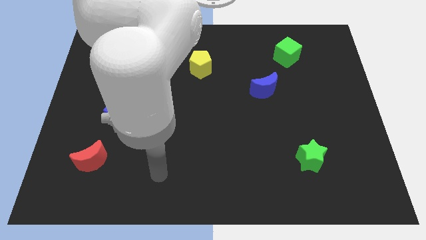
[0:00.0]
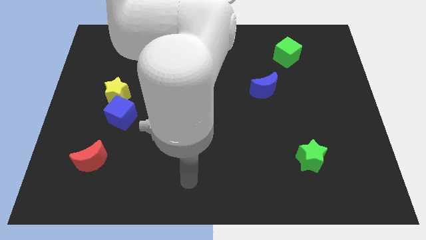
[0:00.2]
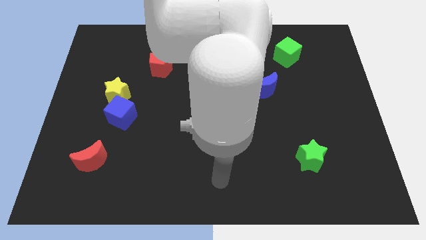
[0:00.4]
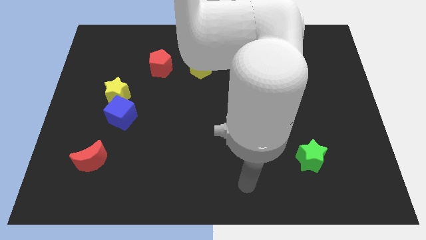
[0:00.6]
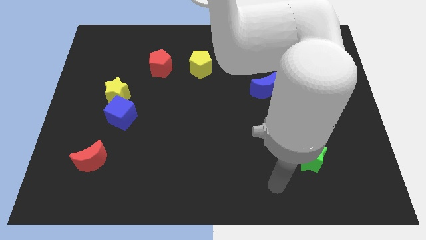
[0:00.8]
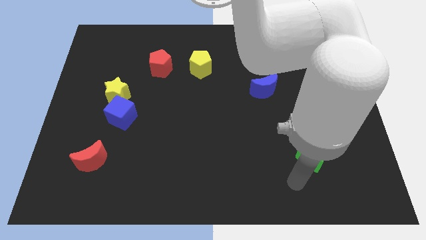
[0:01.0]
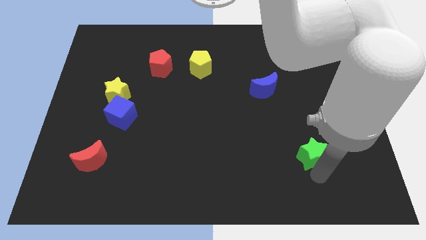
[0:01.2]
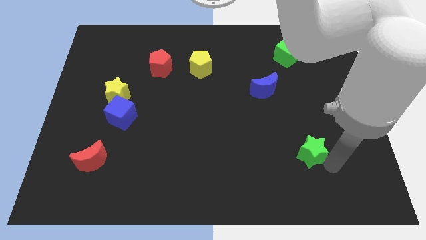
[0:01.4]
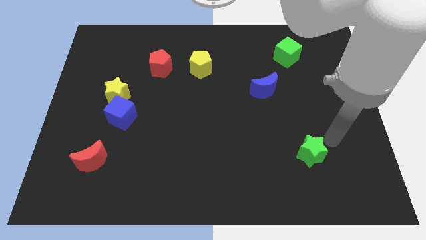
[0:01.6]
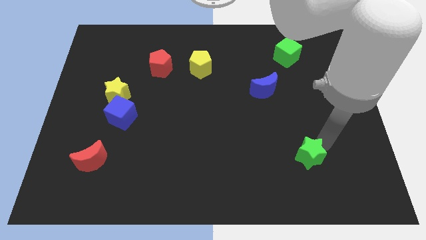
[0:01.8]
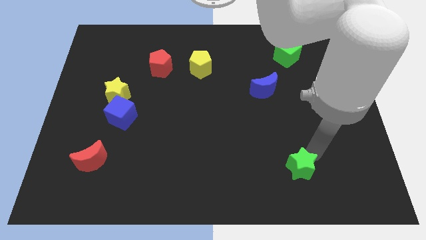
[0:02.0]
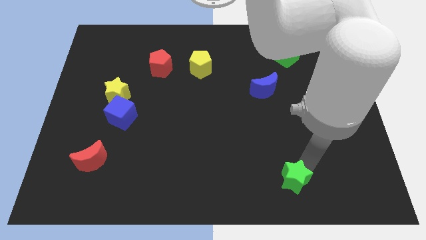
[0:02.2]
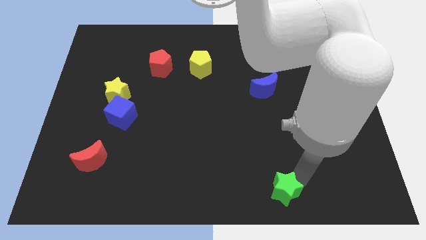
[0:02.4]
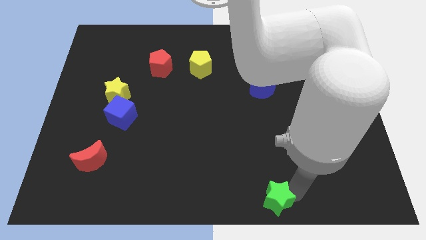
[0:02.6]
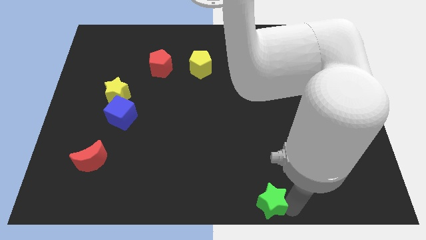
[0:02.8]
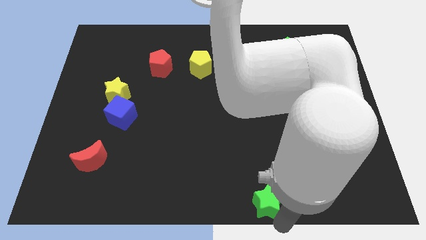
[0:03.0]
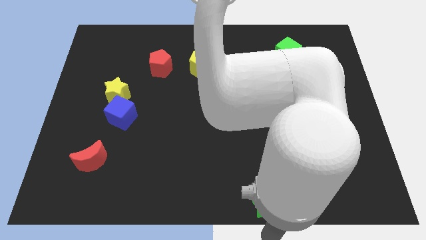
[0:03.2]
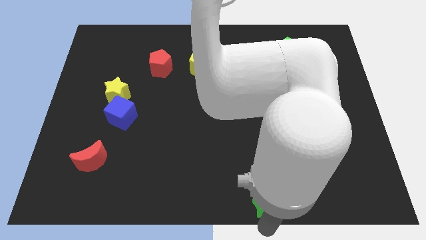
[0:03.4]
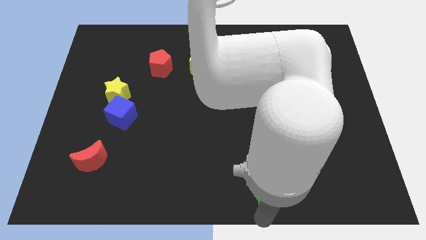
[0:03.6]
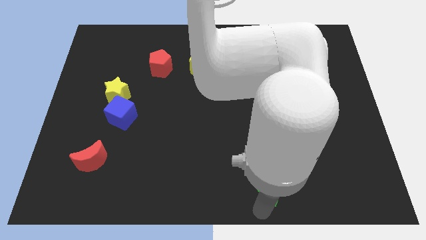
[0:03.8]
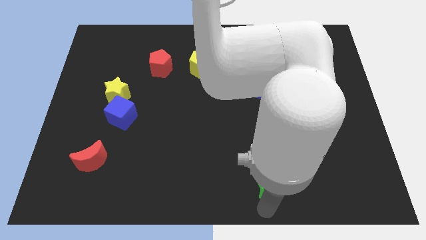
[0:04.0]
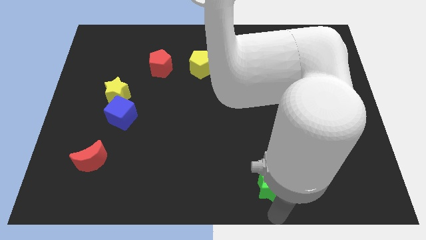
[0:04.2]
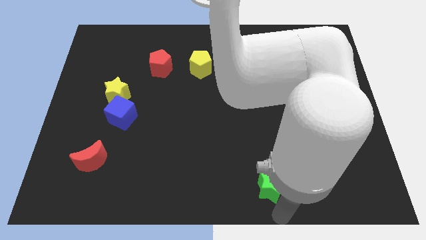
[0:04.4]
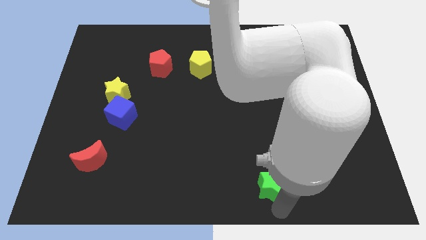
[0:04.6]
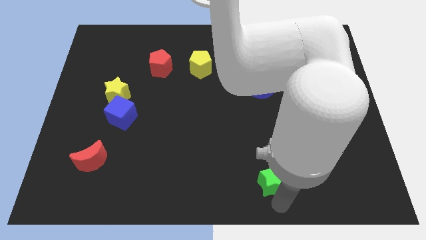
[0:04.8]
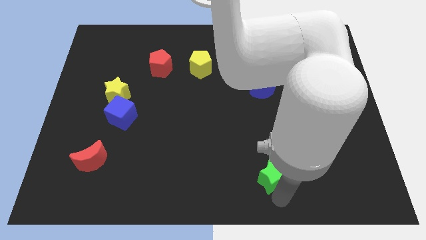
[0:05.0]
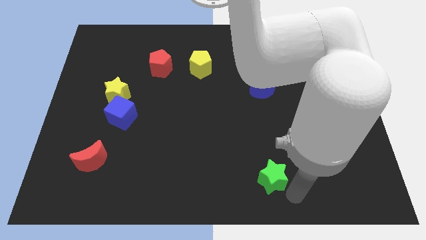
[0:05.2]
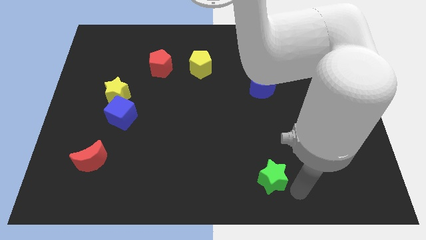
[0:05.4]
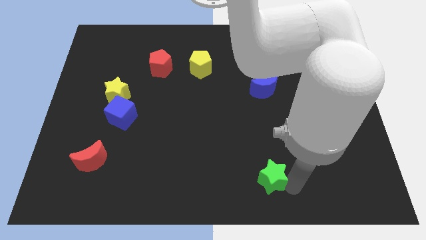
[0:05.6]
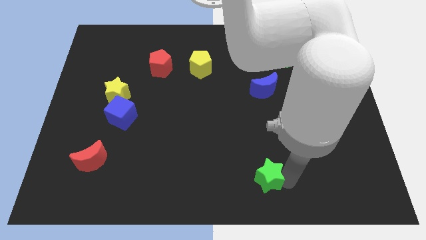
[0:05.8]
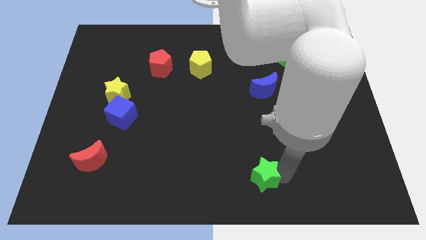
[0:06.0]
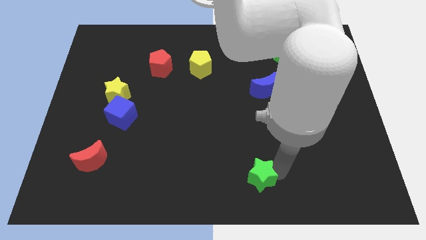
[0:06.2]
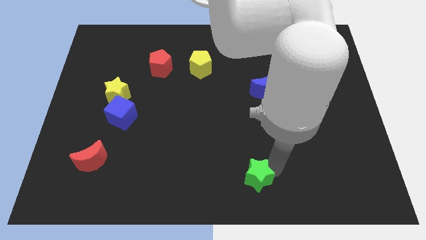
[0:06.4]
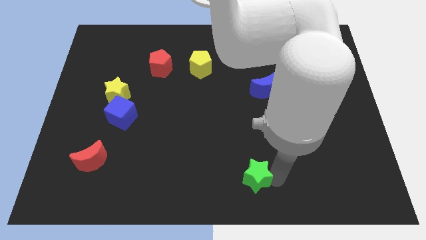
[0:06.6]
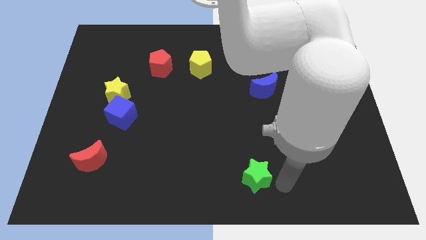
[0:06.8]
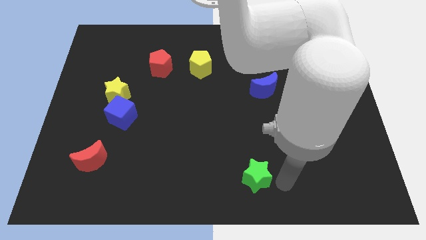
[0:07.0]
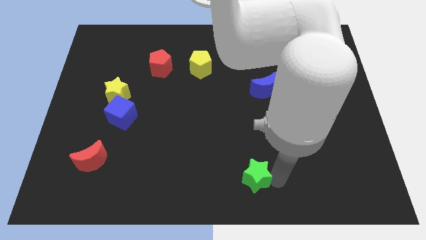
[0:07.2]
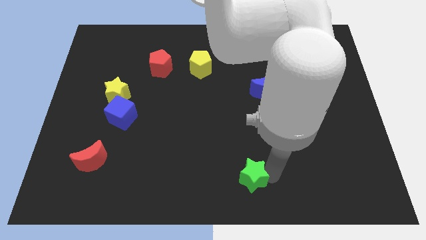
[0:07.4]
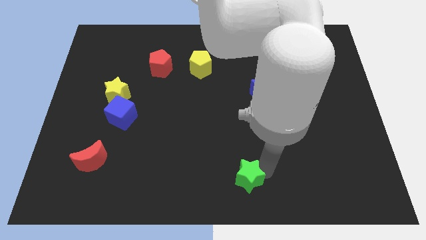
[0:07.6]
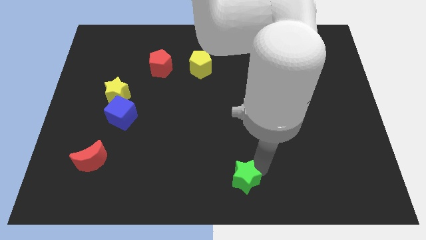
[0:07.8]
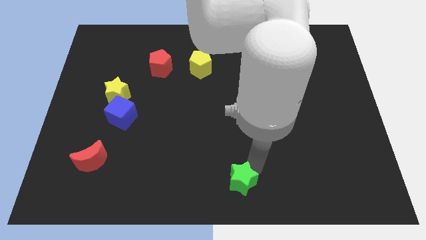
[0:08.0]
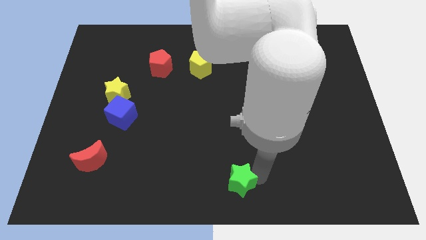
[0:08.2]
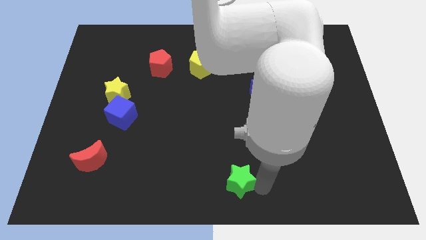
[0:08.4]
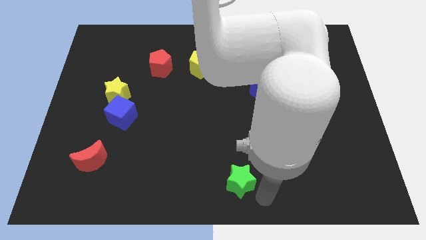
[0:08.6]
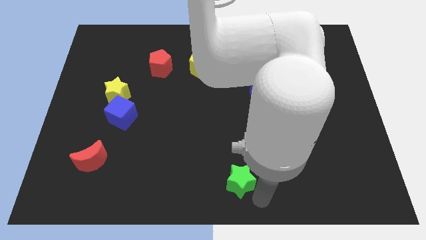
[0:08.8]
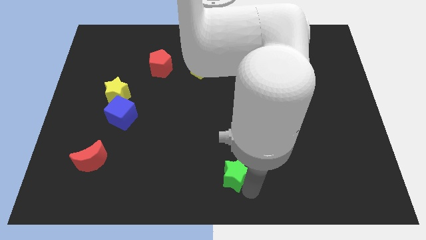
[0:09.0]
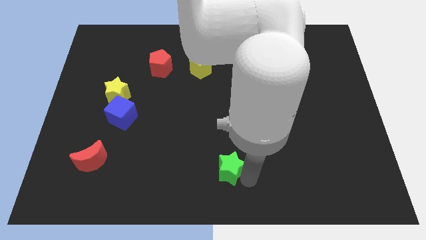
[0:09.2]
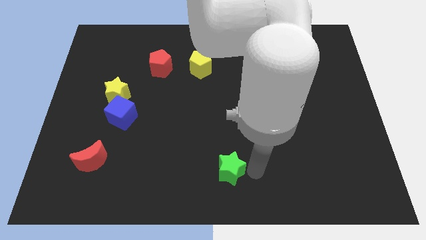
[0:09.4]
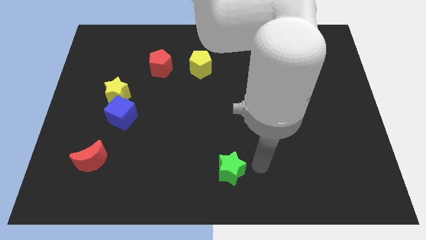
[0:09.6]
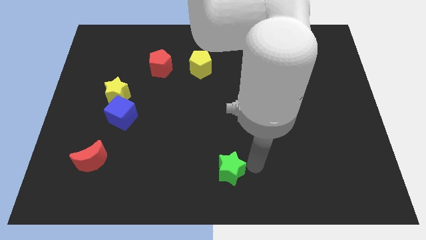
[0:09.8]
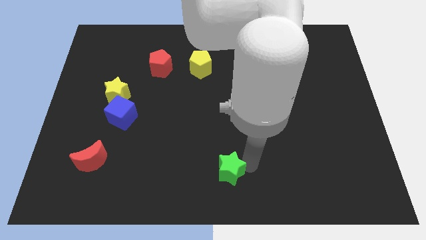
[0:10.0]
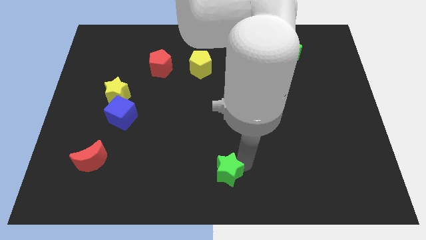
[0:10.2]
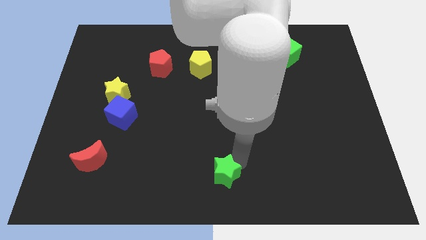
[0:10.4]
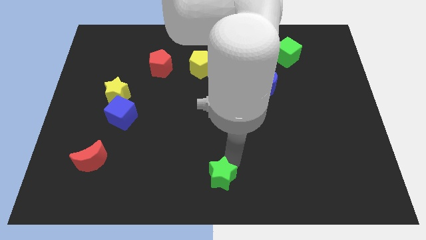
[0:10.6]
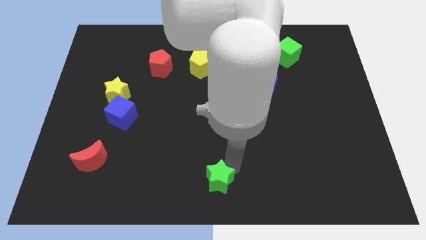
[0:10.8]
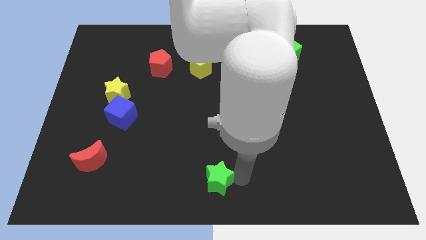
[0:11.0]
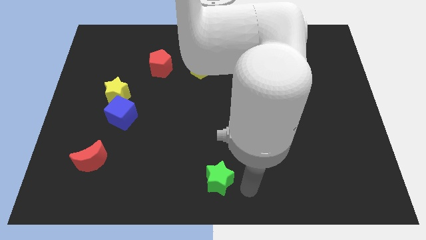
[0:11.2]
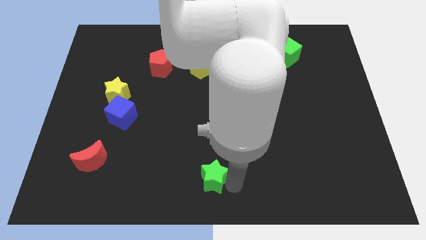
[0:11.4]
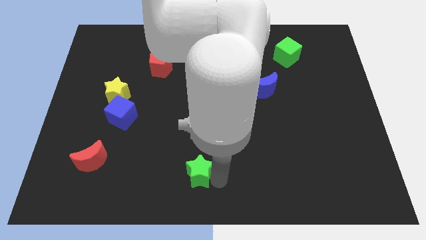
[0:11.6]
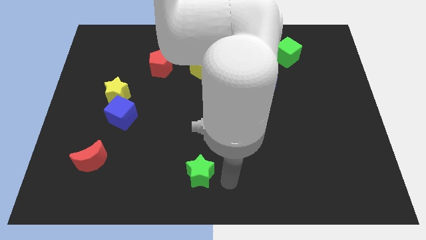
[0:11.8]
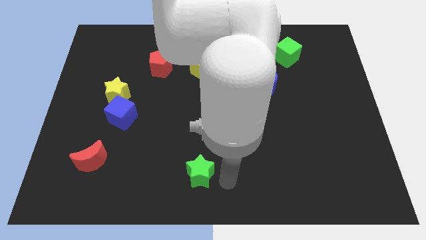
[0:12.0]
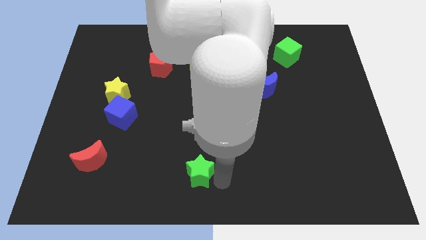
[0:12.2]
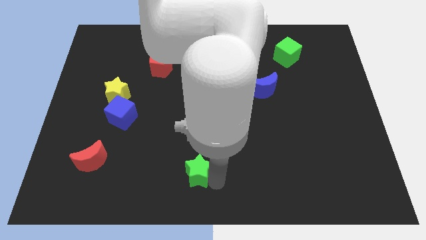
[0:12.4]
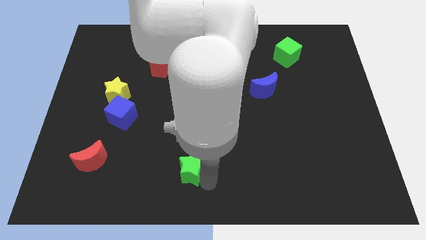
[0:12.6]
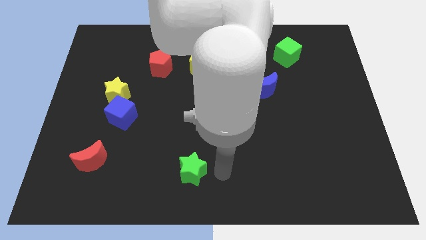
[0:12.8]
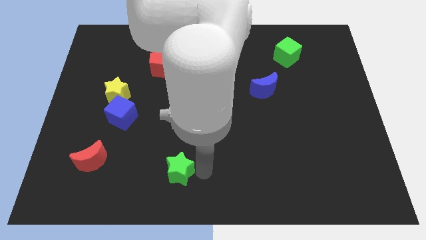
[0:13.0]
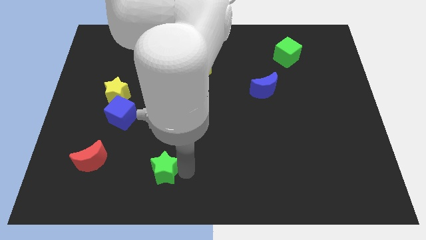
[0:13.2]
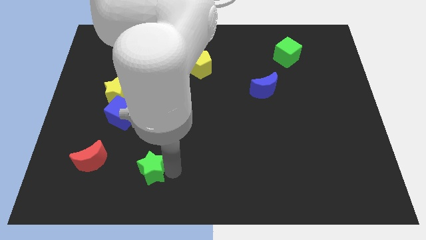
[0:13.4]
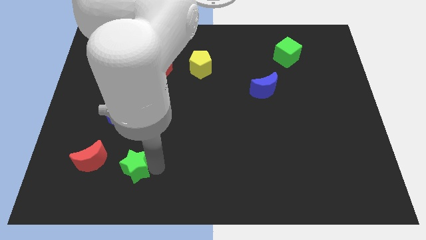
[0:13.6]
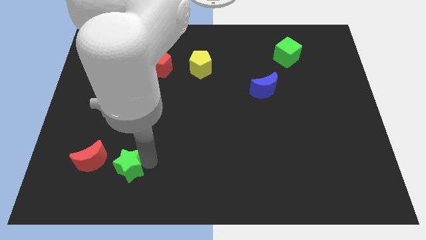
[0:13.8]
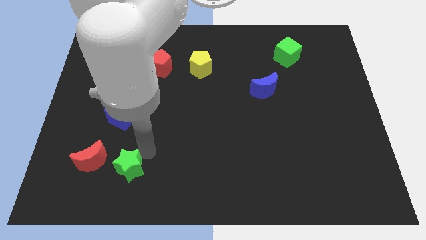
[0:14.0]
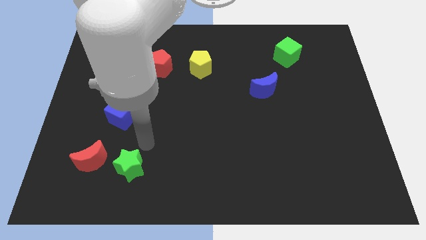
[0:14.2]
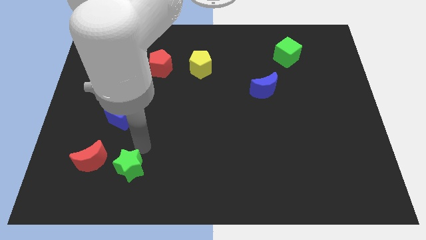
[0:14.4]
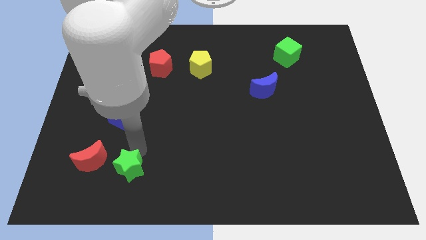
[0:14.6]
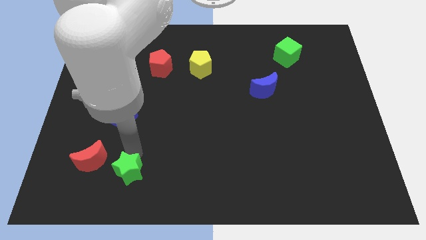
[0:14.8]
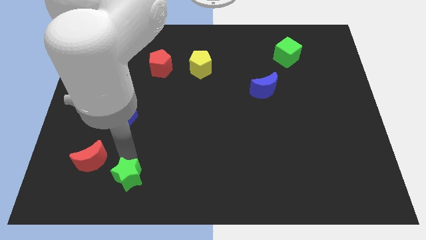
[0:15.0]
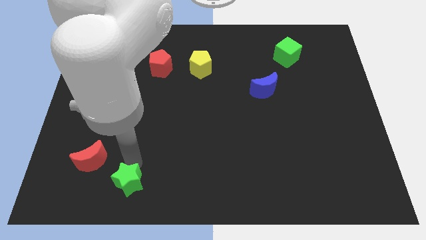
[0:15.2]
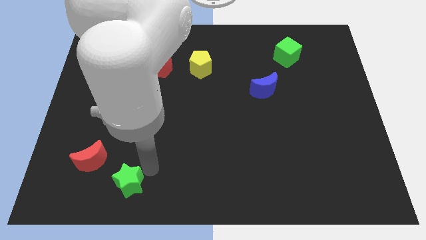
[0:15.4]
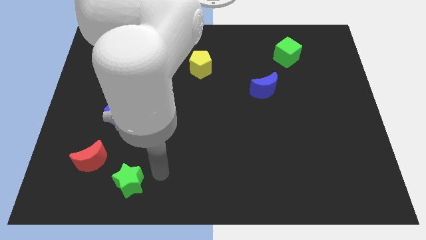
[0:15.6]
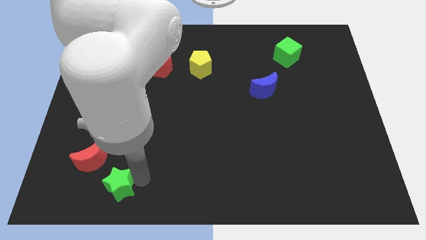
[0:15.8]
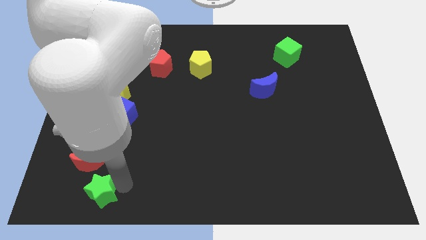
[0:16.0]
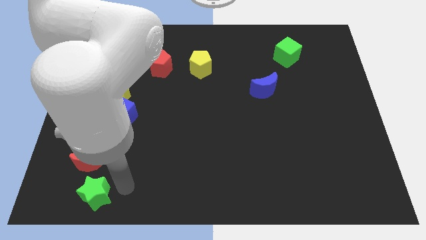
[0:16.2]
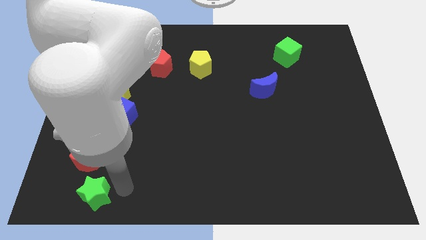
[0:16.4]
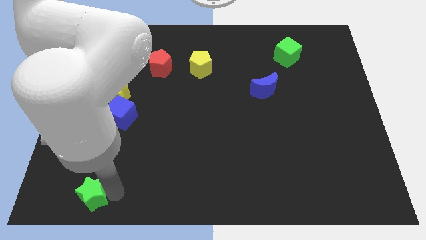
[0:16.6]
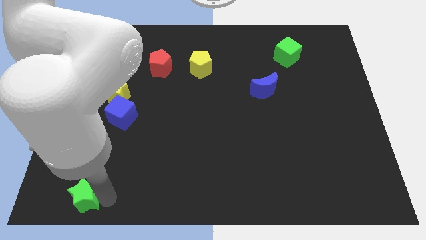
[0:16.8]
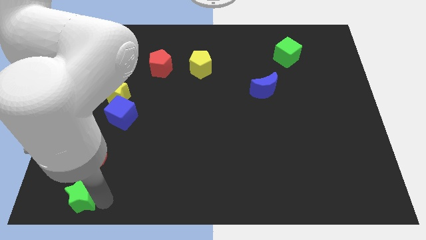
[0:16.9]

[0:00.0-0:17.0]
slide the green star to the bottom left
